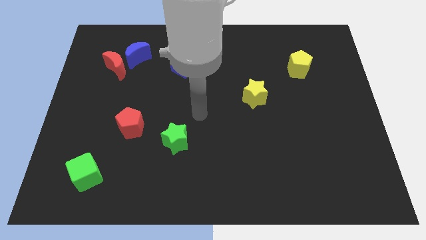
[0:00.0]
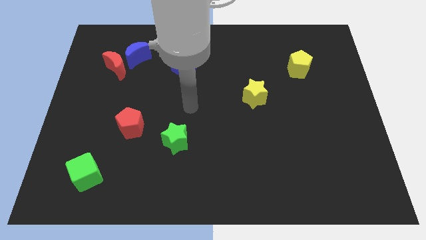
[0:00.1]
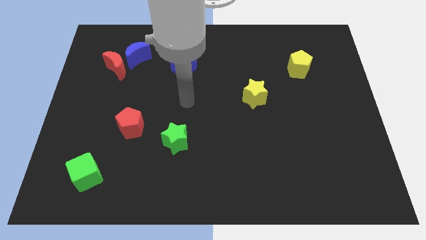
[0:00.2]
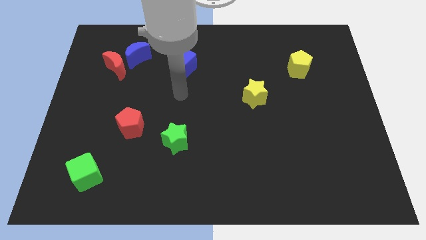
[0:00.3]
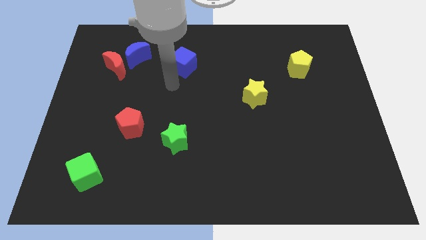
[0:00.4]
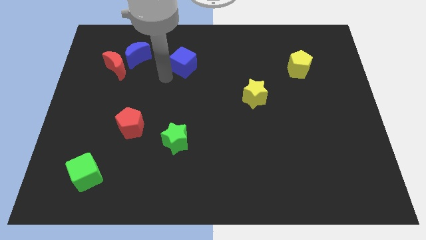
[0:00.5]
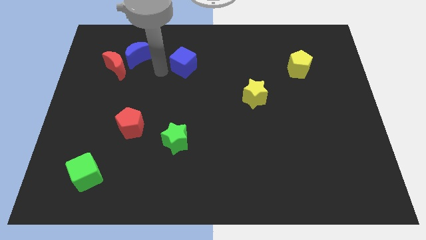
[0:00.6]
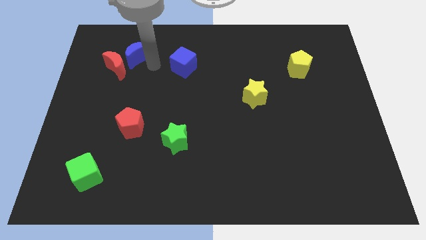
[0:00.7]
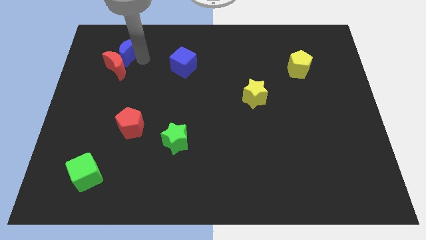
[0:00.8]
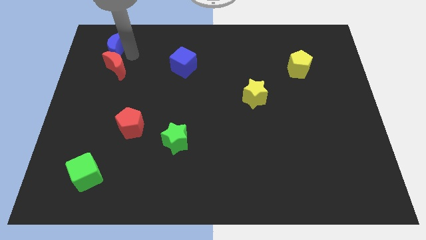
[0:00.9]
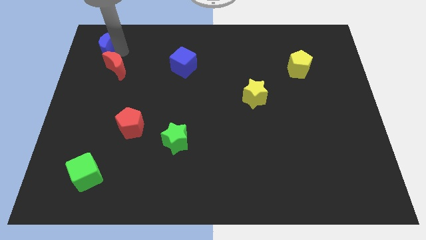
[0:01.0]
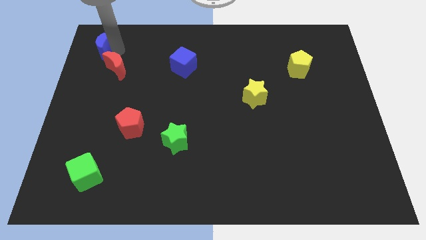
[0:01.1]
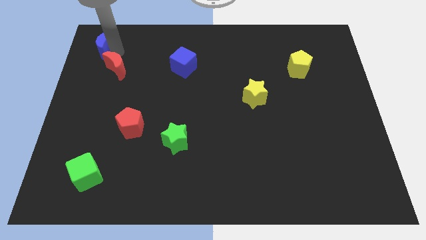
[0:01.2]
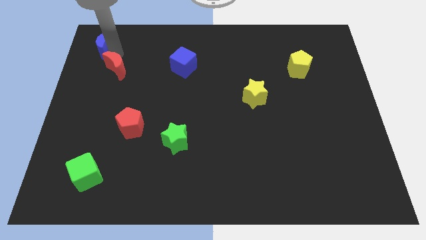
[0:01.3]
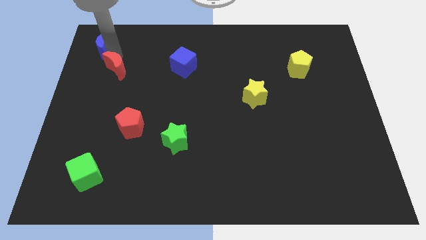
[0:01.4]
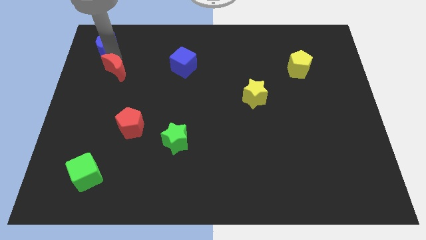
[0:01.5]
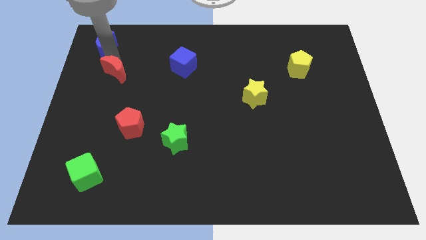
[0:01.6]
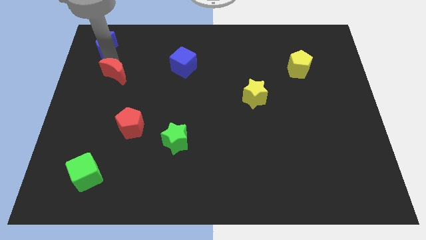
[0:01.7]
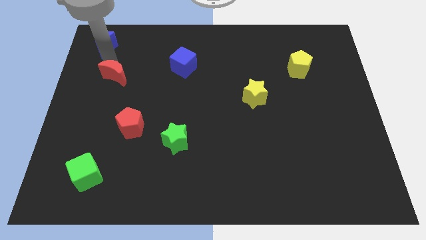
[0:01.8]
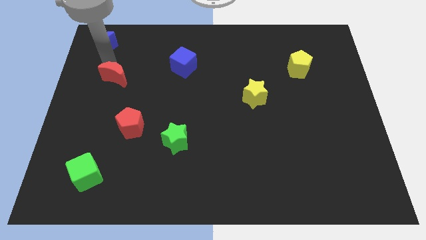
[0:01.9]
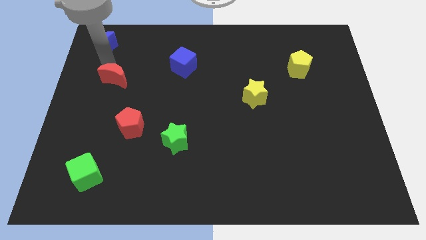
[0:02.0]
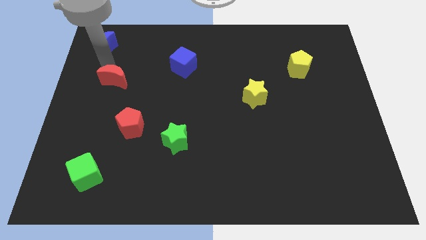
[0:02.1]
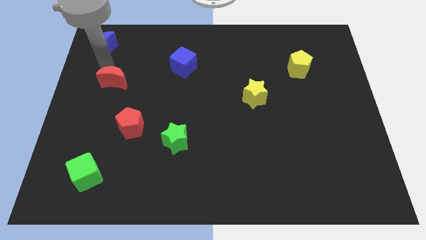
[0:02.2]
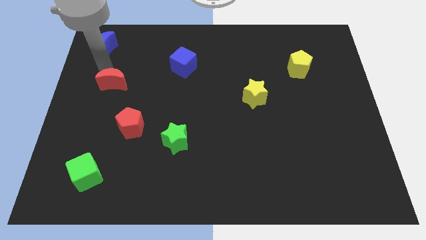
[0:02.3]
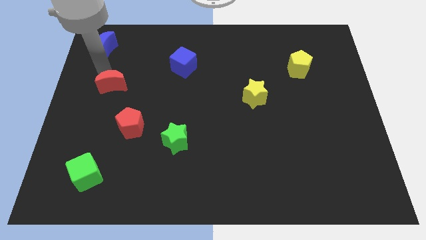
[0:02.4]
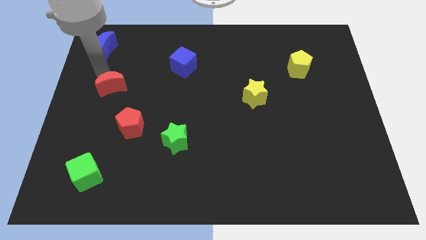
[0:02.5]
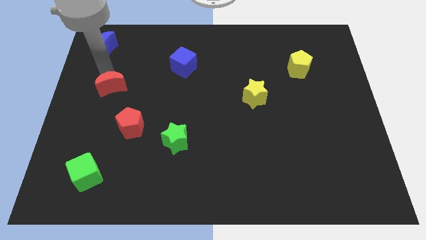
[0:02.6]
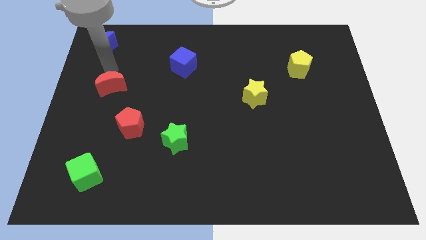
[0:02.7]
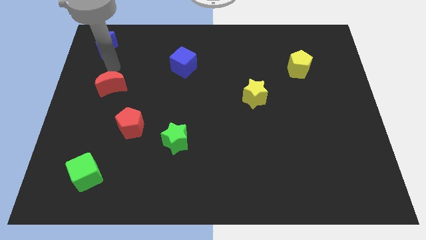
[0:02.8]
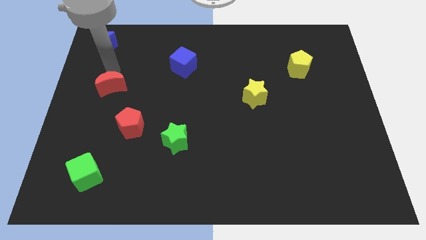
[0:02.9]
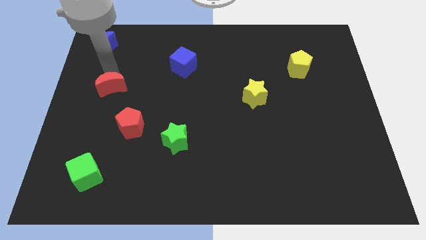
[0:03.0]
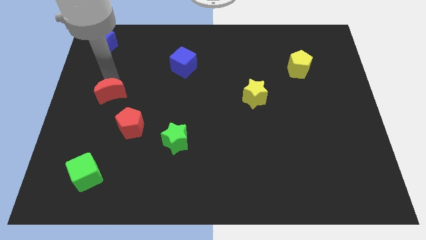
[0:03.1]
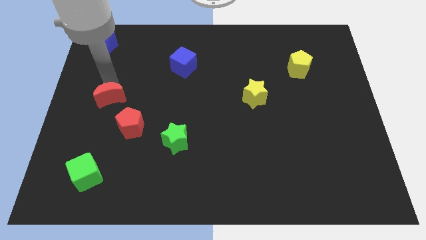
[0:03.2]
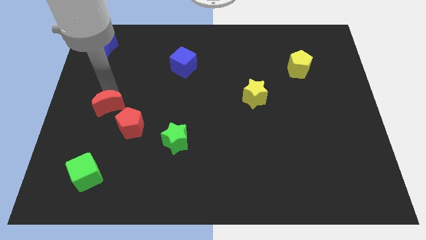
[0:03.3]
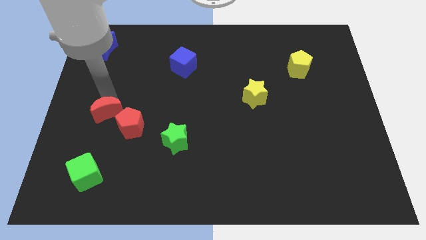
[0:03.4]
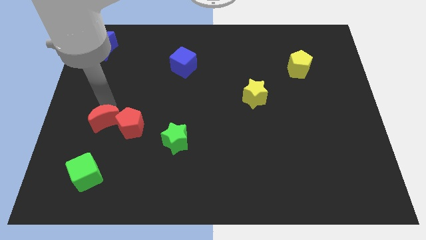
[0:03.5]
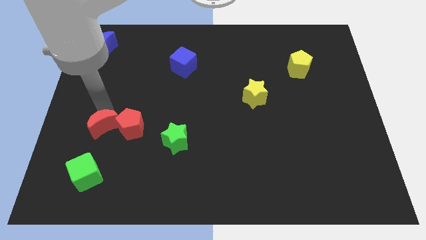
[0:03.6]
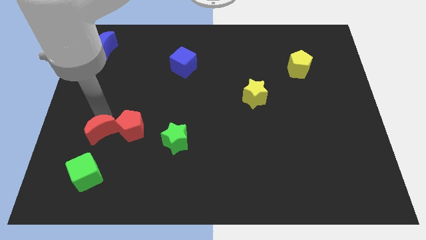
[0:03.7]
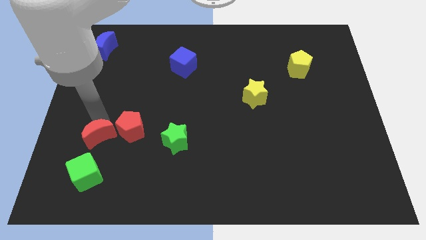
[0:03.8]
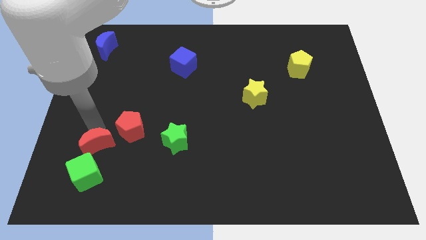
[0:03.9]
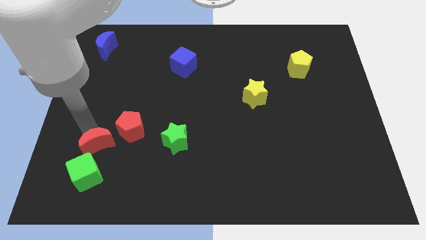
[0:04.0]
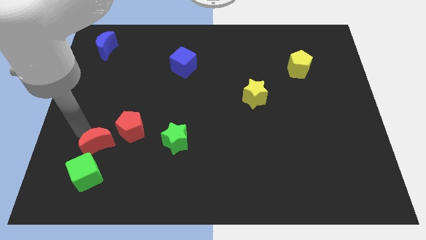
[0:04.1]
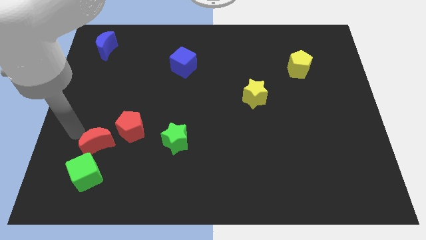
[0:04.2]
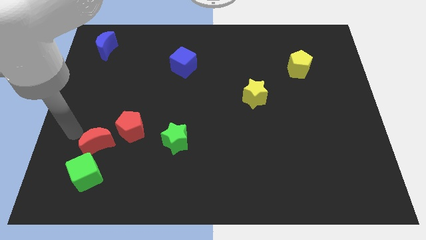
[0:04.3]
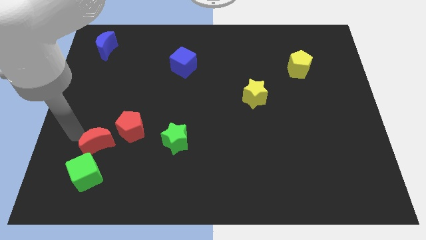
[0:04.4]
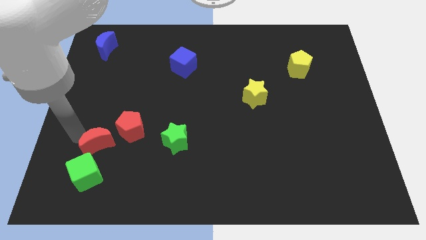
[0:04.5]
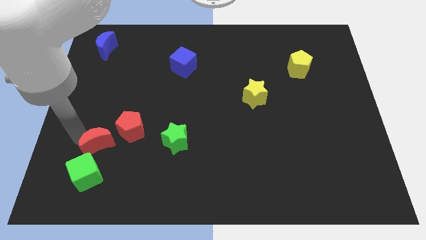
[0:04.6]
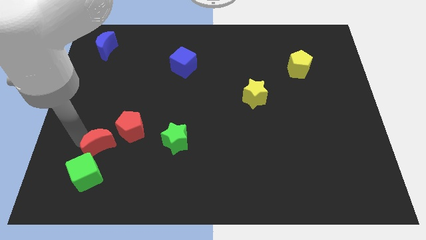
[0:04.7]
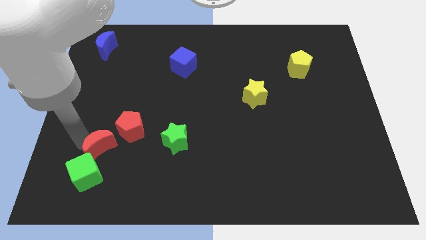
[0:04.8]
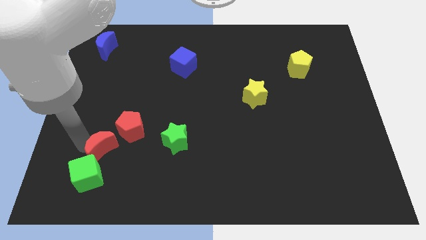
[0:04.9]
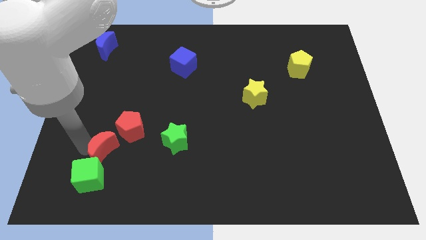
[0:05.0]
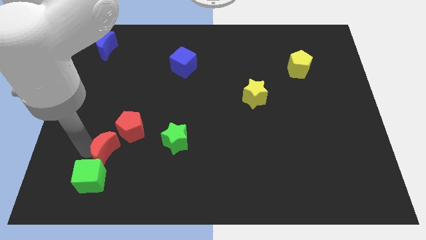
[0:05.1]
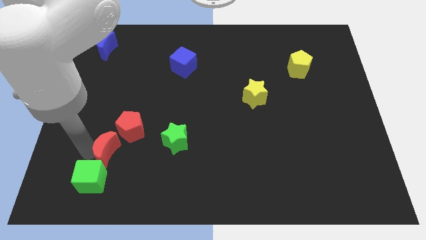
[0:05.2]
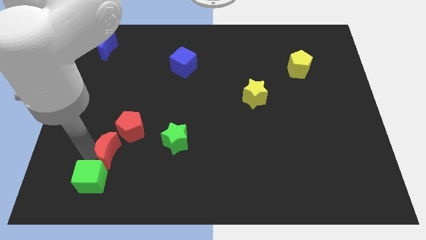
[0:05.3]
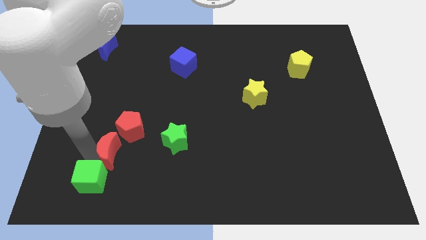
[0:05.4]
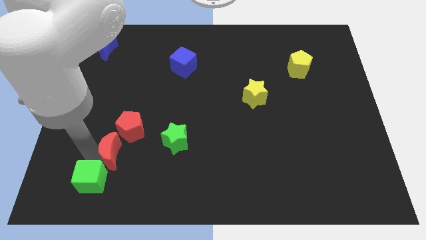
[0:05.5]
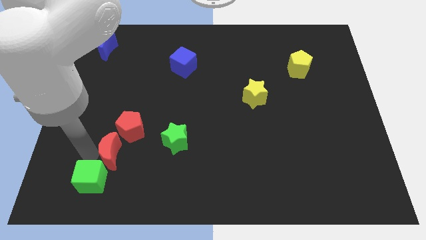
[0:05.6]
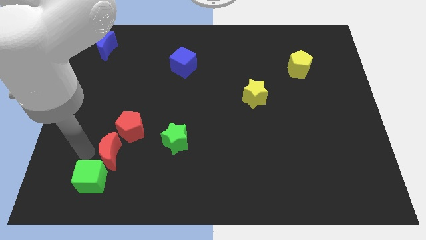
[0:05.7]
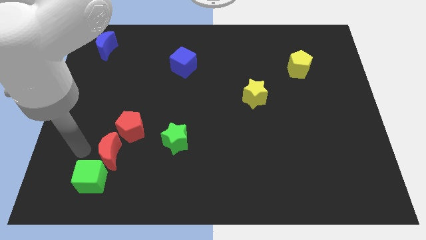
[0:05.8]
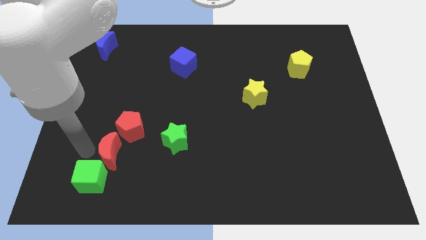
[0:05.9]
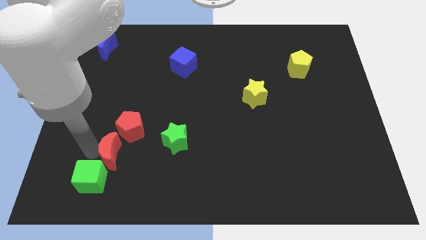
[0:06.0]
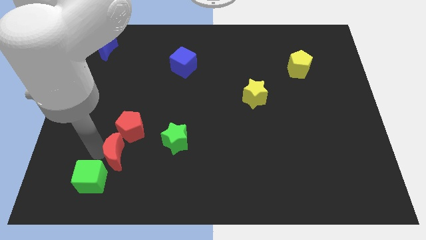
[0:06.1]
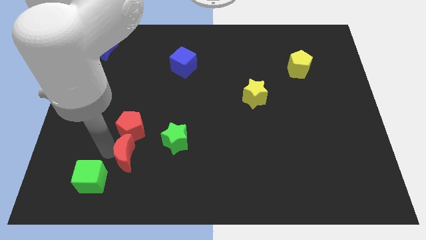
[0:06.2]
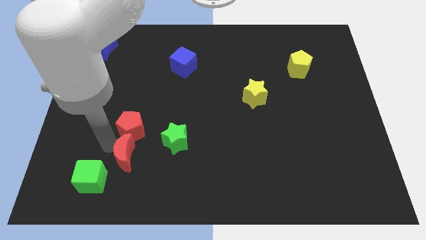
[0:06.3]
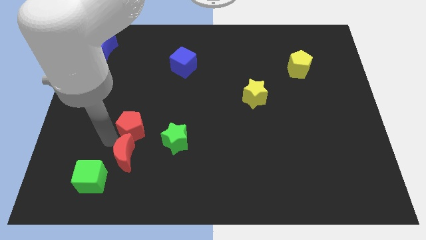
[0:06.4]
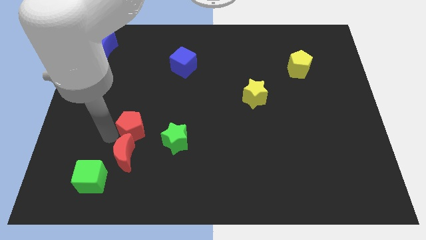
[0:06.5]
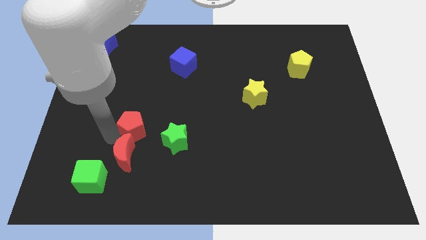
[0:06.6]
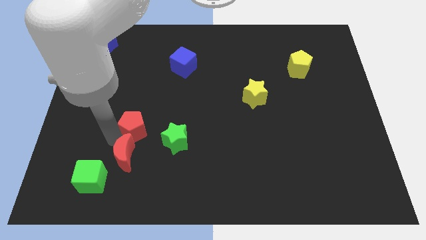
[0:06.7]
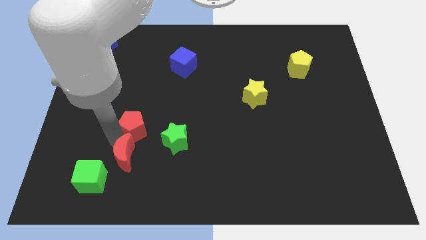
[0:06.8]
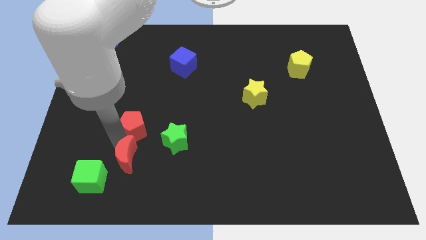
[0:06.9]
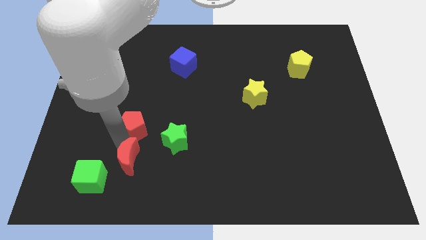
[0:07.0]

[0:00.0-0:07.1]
put the red moon to the right of the green cube

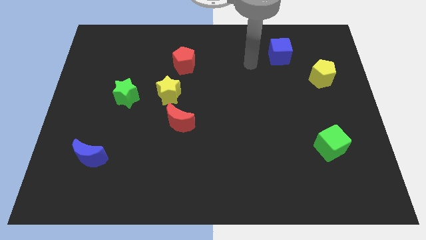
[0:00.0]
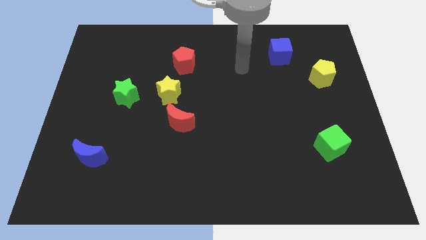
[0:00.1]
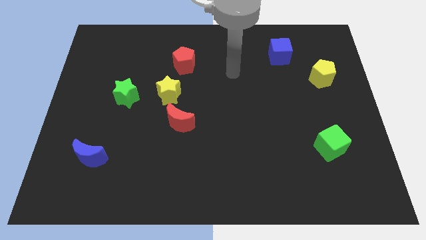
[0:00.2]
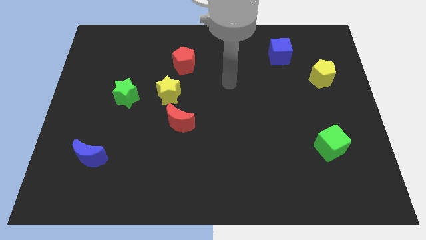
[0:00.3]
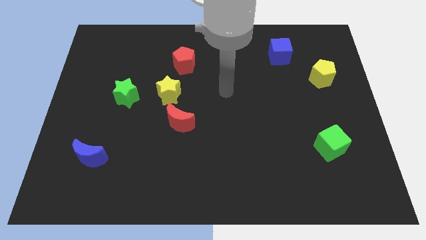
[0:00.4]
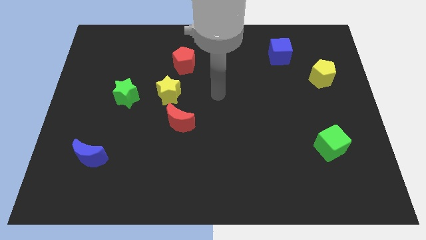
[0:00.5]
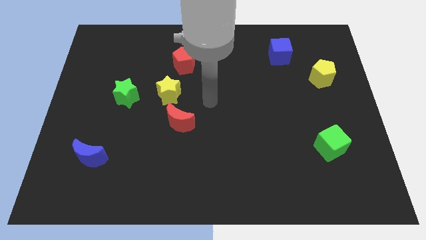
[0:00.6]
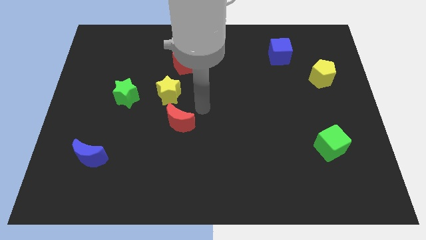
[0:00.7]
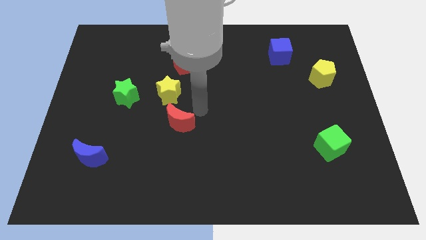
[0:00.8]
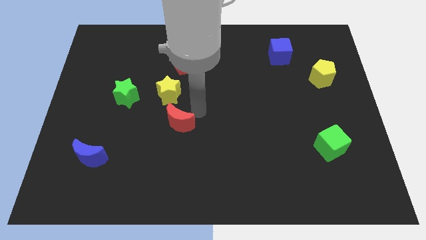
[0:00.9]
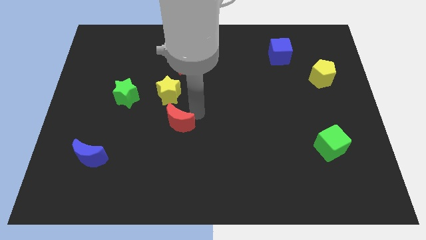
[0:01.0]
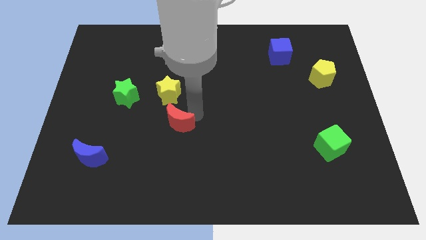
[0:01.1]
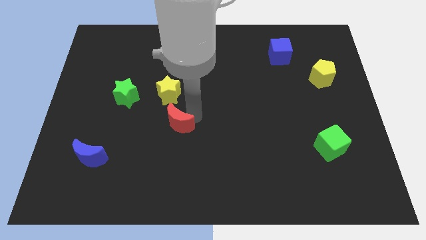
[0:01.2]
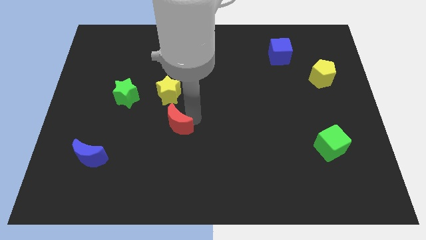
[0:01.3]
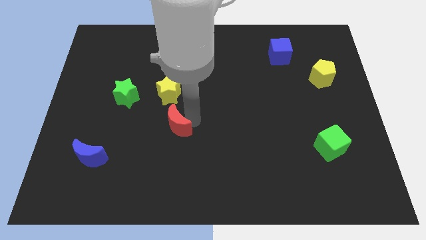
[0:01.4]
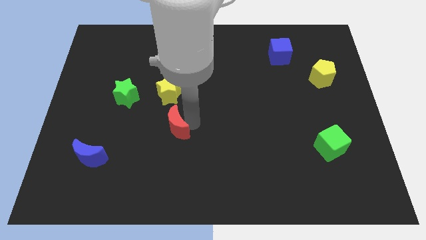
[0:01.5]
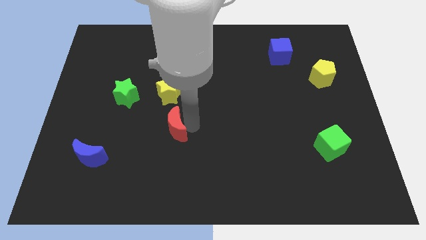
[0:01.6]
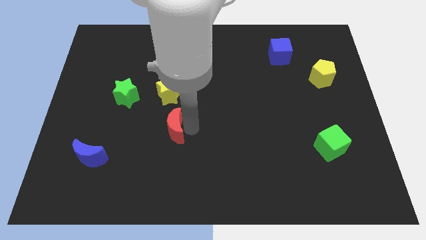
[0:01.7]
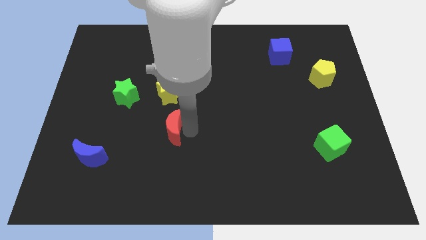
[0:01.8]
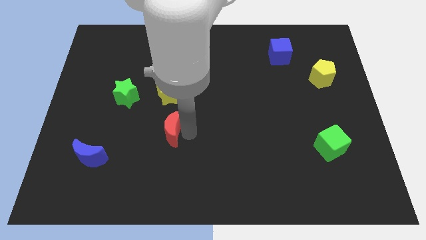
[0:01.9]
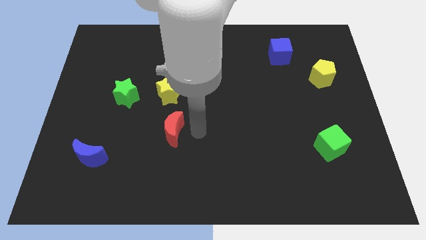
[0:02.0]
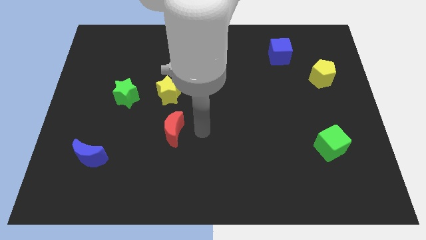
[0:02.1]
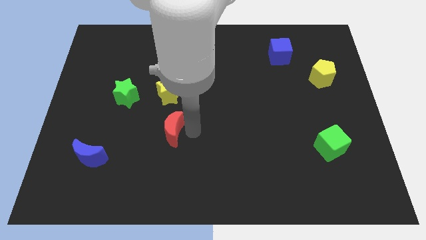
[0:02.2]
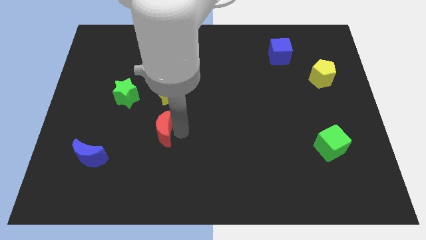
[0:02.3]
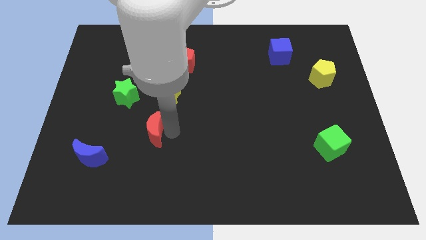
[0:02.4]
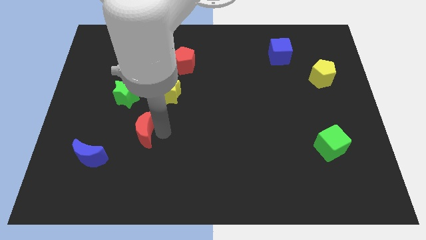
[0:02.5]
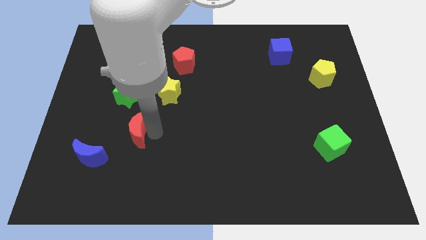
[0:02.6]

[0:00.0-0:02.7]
slide the red moon to the bottom of the green star
